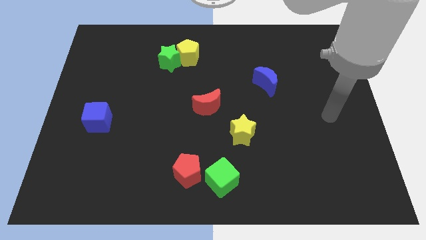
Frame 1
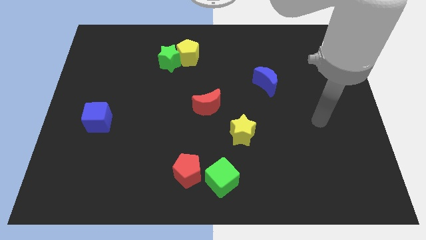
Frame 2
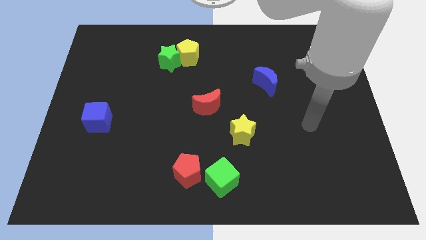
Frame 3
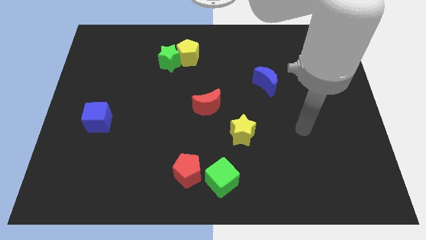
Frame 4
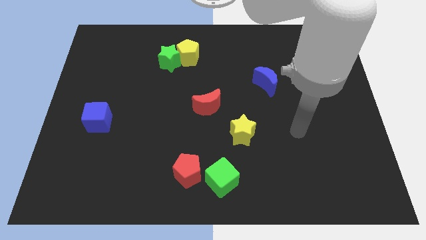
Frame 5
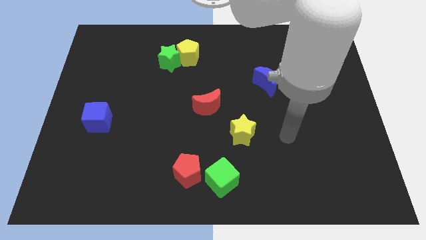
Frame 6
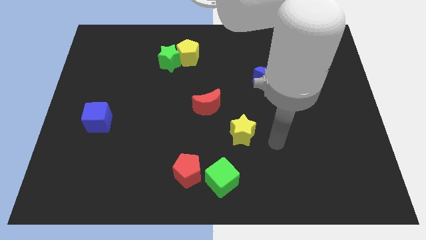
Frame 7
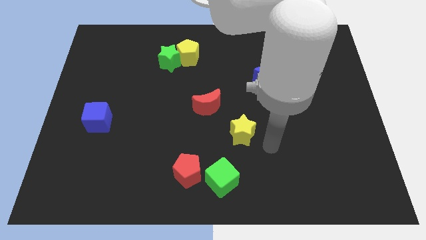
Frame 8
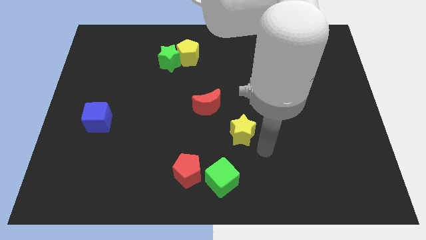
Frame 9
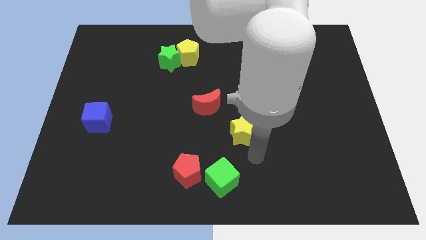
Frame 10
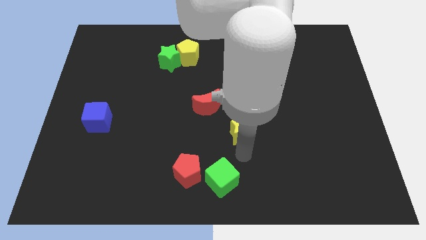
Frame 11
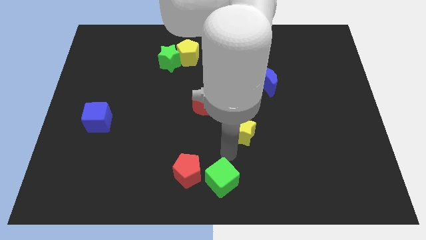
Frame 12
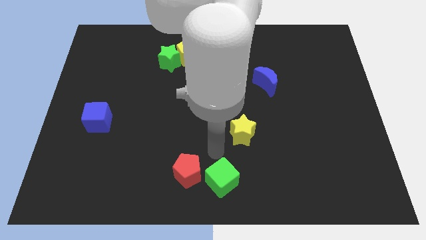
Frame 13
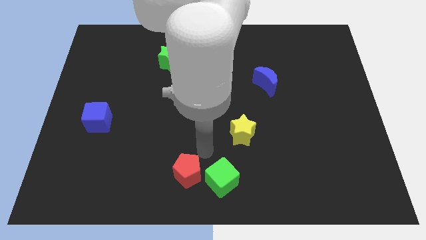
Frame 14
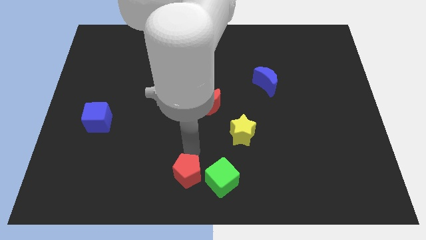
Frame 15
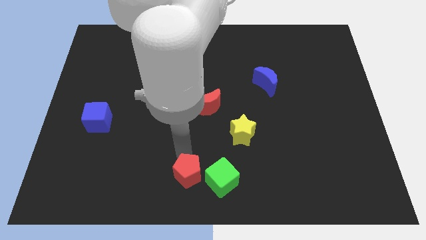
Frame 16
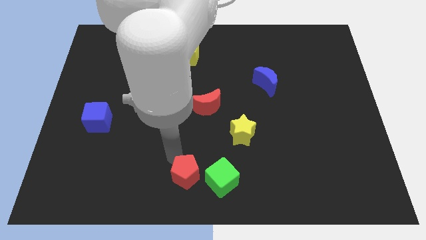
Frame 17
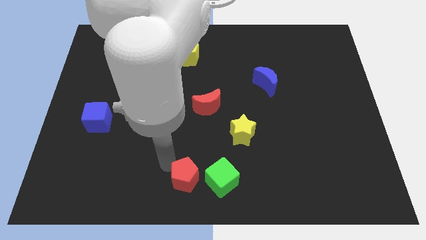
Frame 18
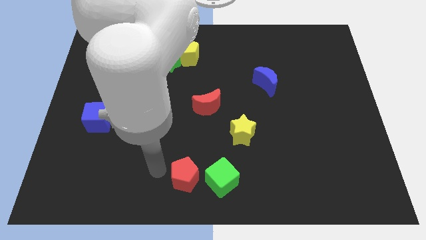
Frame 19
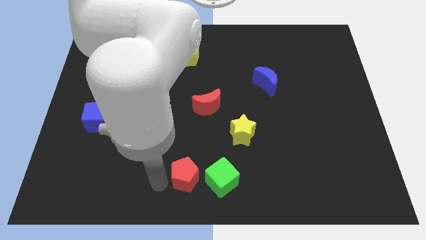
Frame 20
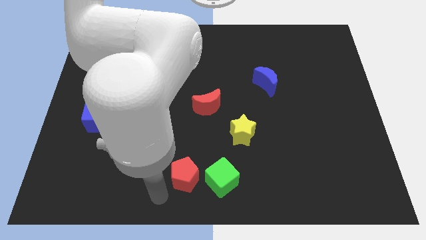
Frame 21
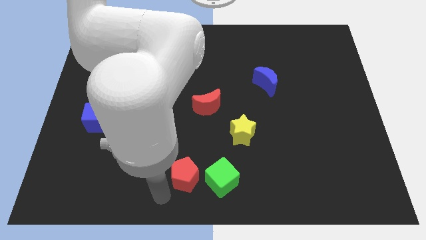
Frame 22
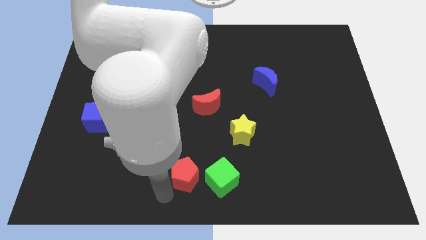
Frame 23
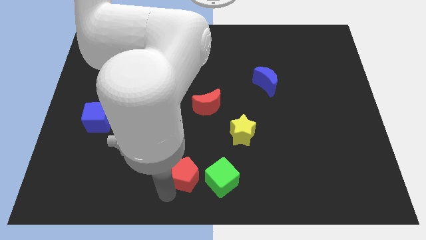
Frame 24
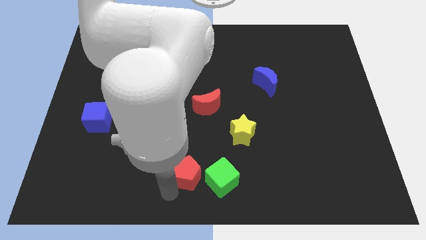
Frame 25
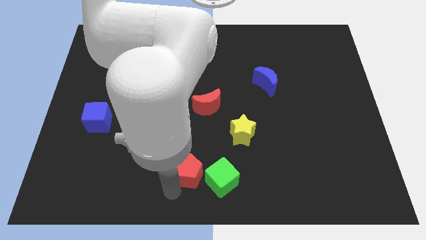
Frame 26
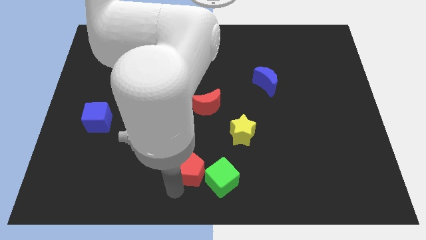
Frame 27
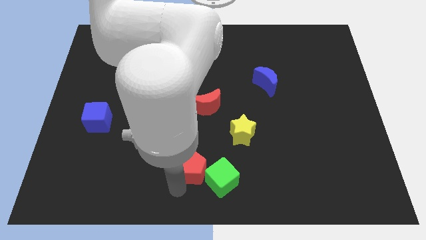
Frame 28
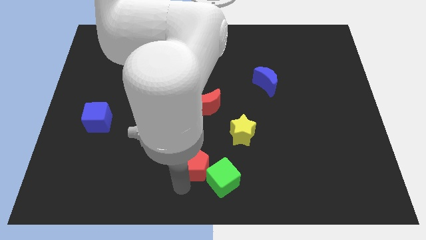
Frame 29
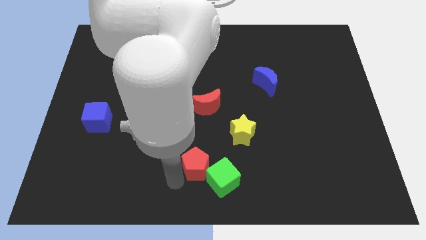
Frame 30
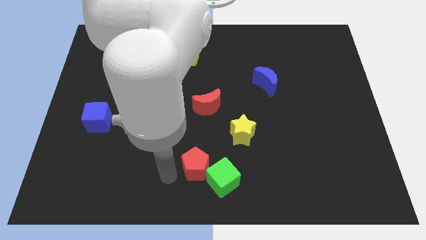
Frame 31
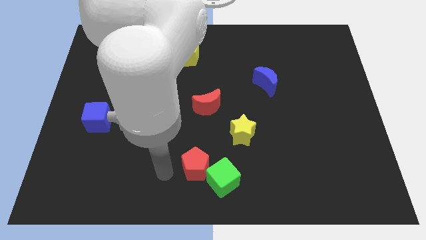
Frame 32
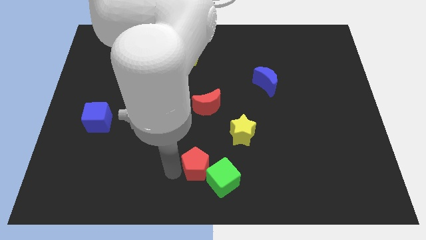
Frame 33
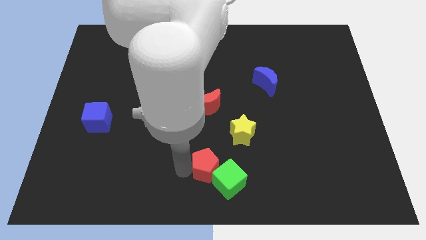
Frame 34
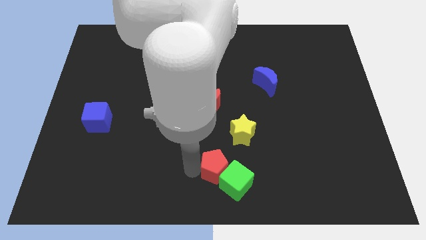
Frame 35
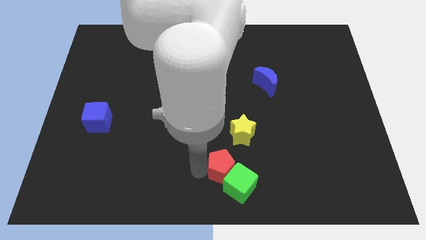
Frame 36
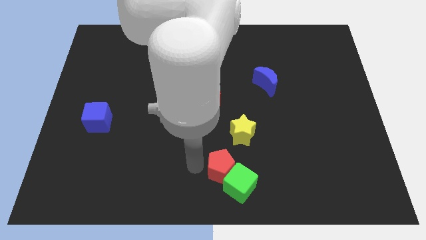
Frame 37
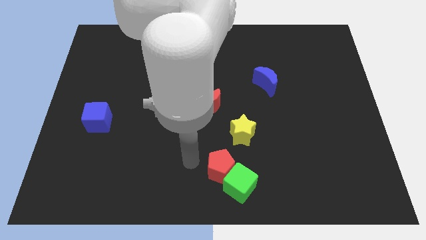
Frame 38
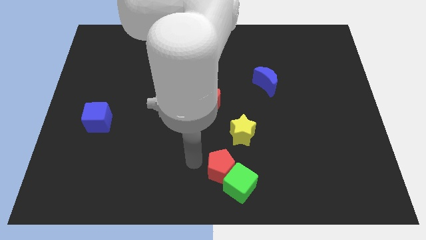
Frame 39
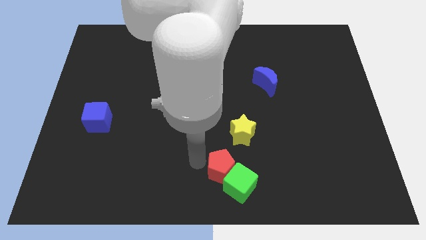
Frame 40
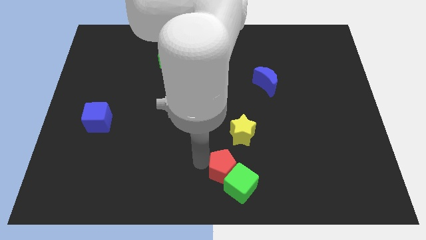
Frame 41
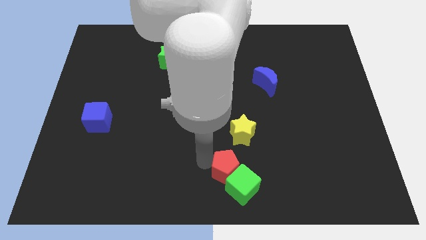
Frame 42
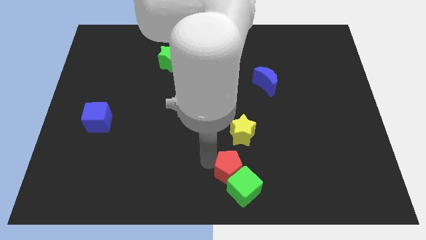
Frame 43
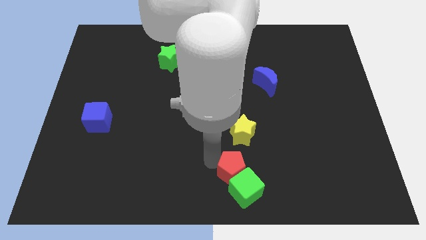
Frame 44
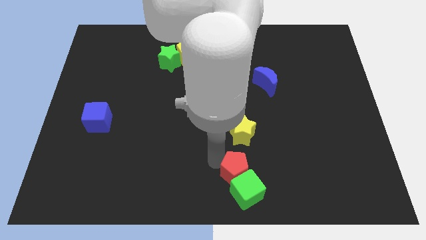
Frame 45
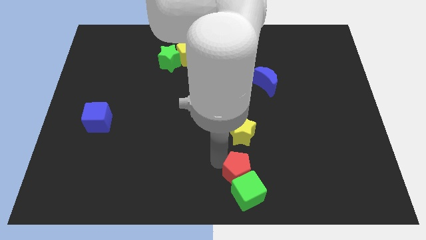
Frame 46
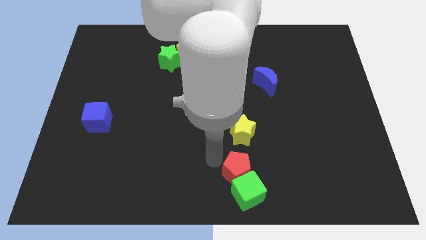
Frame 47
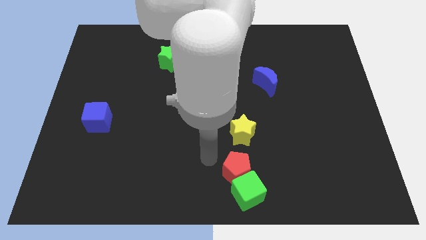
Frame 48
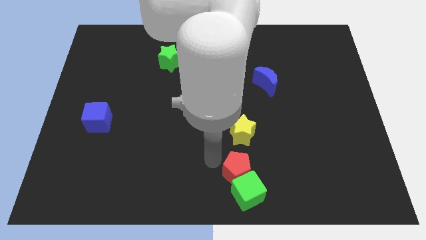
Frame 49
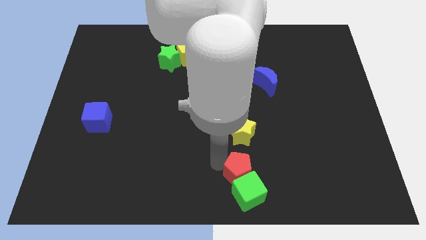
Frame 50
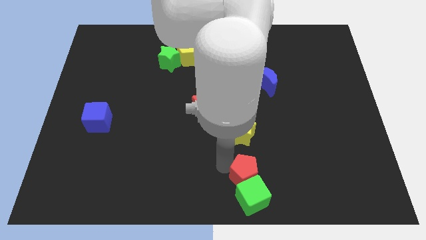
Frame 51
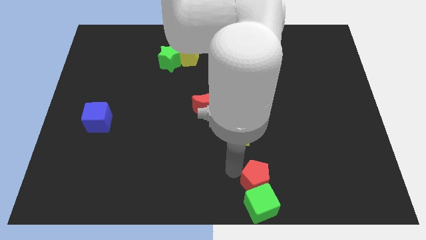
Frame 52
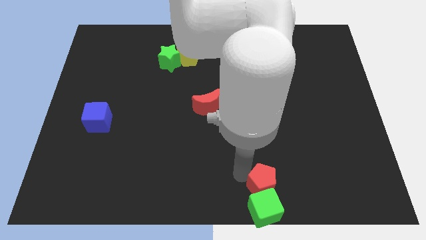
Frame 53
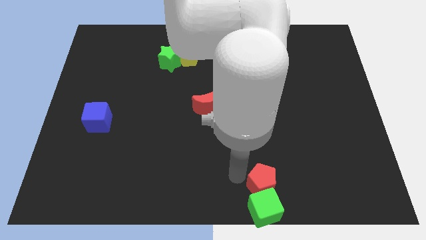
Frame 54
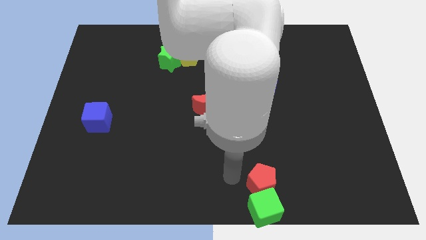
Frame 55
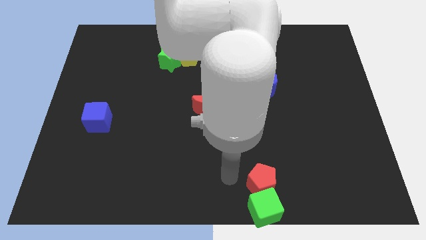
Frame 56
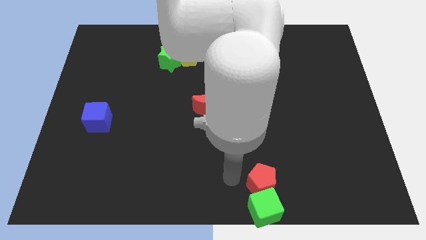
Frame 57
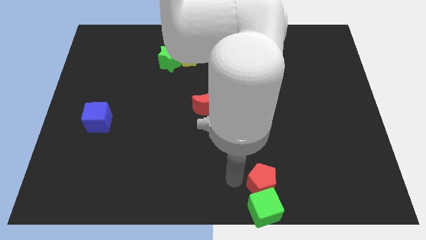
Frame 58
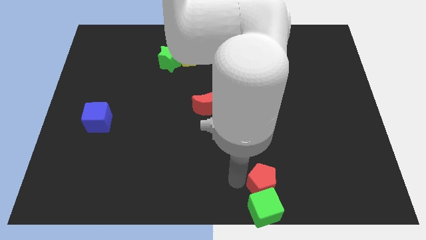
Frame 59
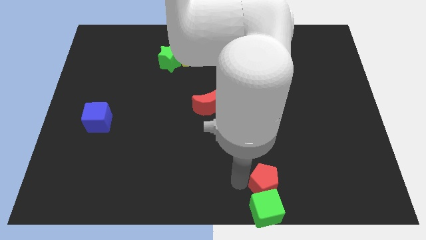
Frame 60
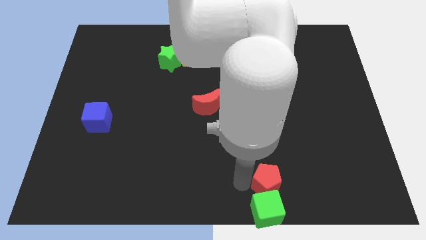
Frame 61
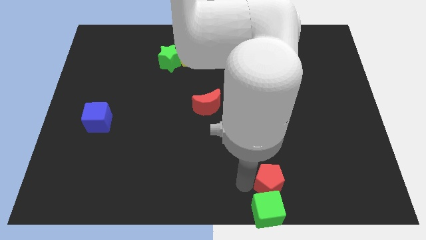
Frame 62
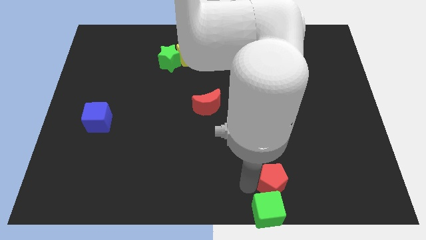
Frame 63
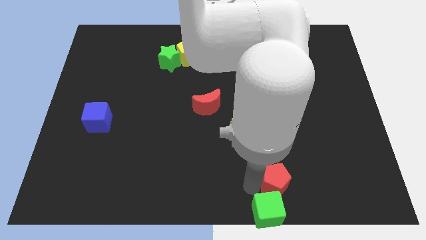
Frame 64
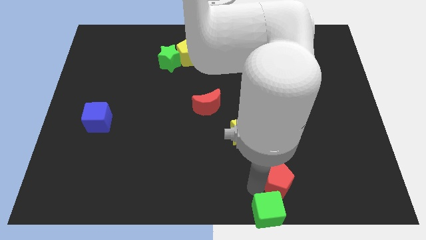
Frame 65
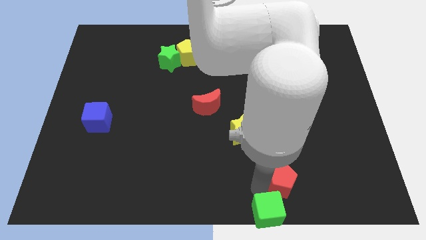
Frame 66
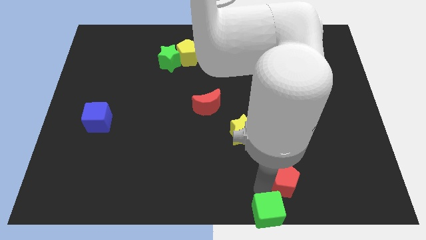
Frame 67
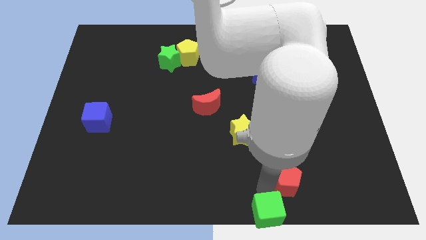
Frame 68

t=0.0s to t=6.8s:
slide the red pentagon right

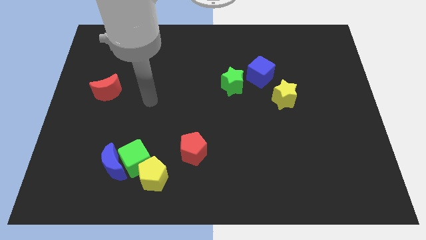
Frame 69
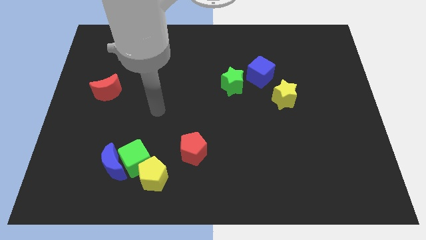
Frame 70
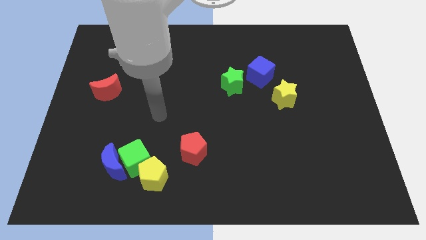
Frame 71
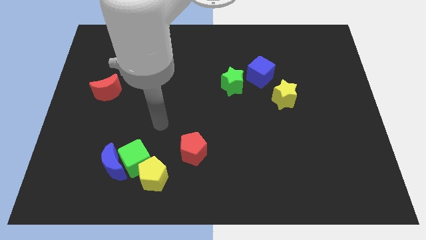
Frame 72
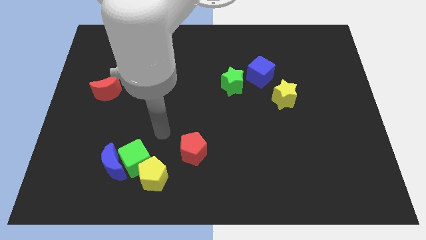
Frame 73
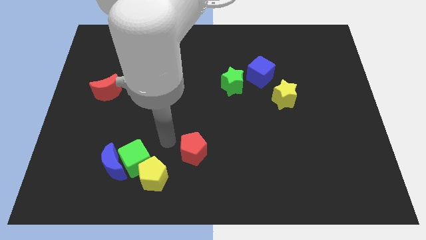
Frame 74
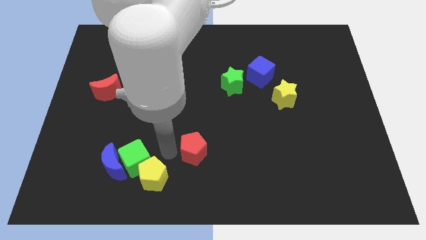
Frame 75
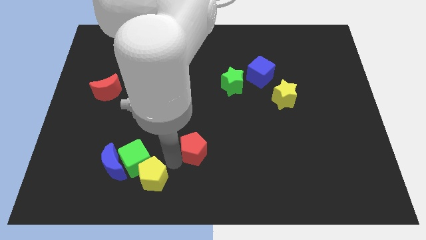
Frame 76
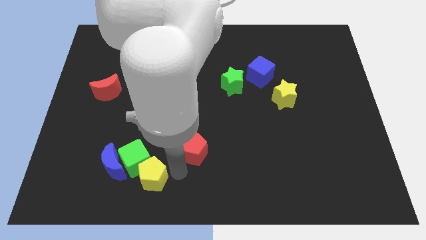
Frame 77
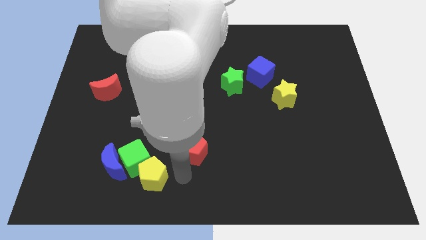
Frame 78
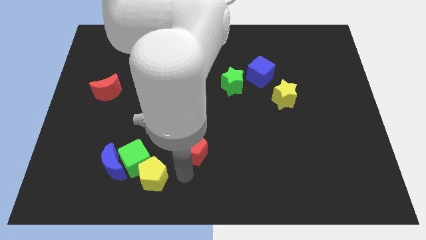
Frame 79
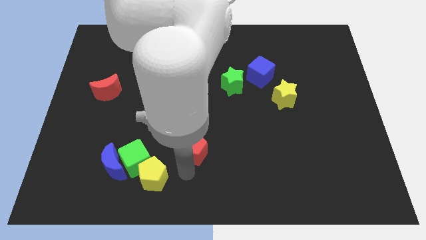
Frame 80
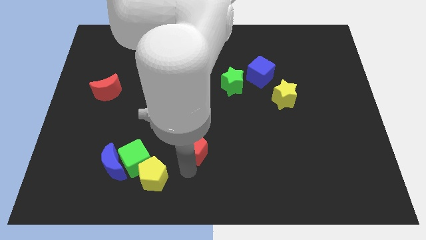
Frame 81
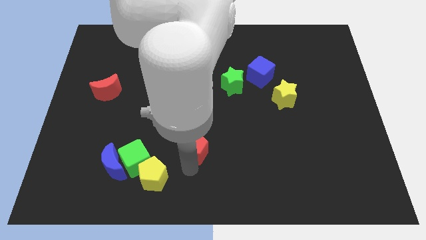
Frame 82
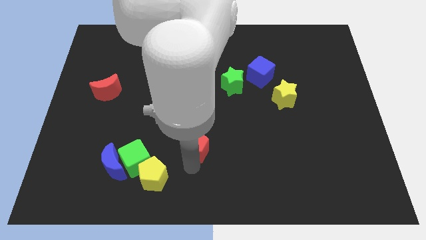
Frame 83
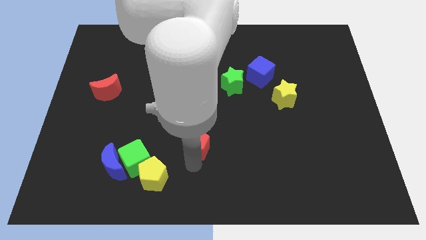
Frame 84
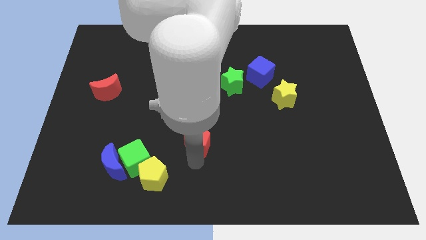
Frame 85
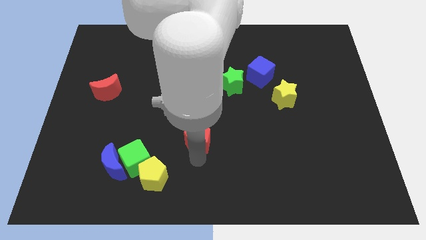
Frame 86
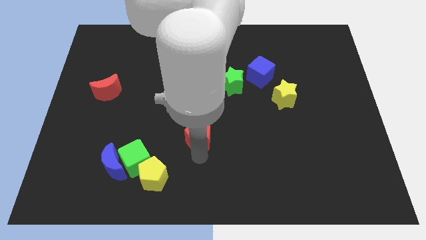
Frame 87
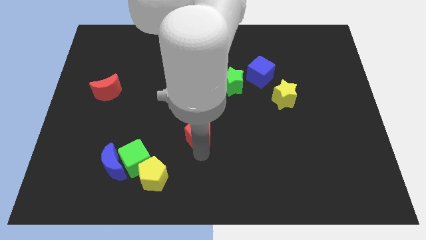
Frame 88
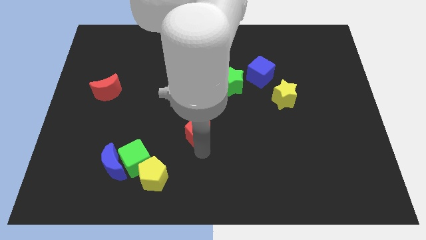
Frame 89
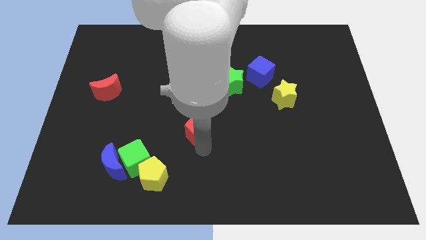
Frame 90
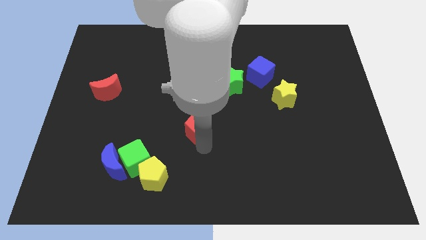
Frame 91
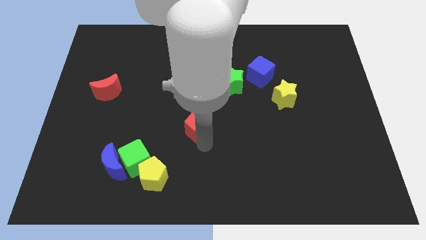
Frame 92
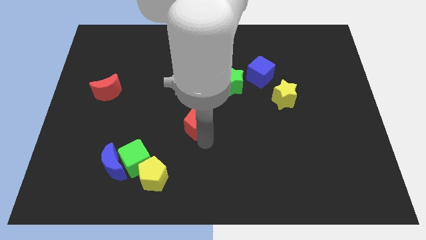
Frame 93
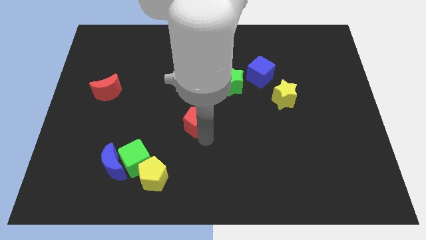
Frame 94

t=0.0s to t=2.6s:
push the red pentagon upwards slightly
